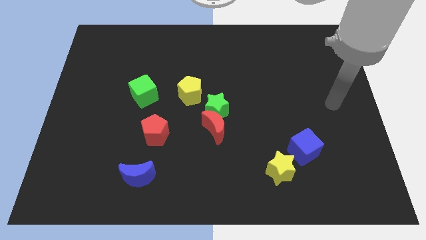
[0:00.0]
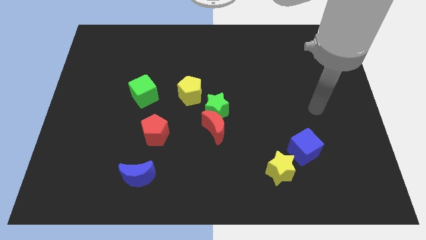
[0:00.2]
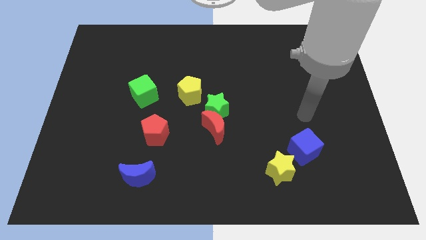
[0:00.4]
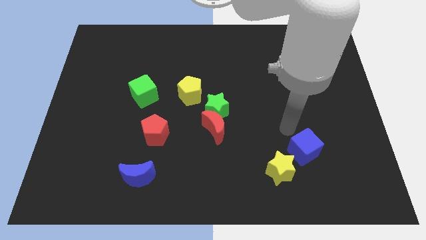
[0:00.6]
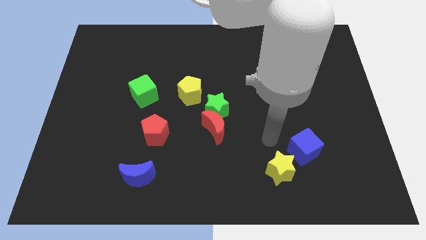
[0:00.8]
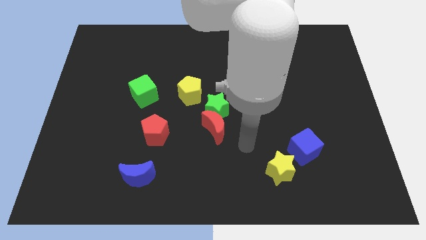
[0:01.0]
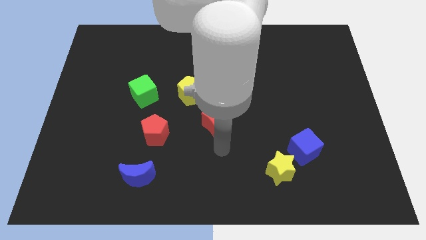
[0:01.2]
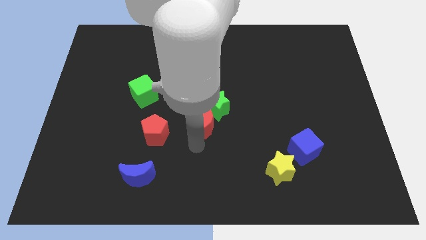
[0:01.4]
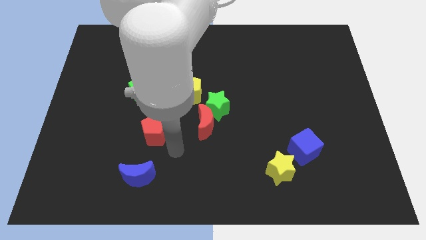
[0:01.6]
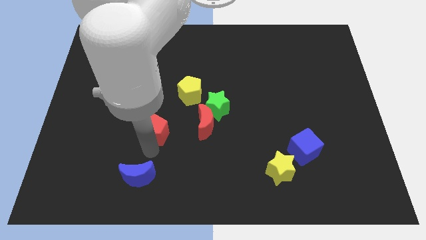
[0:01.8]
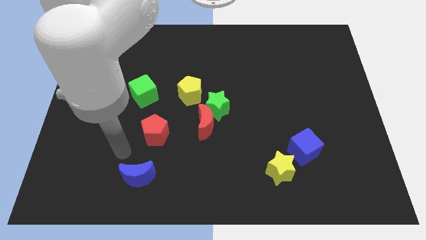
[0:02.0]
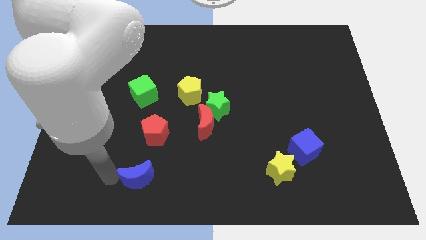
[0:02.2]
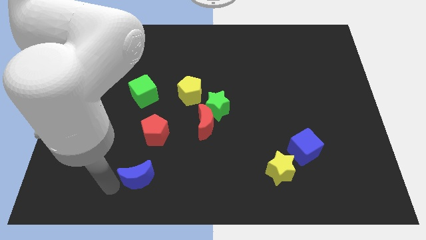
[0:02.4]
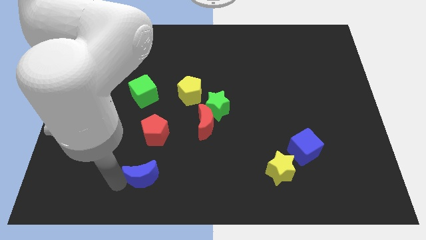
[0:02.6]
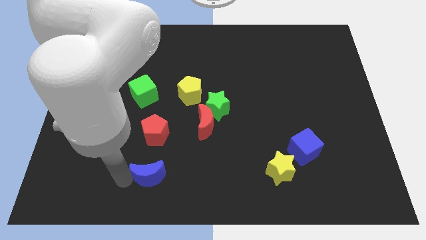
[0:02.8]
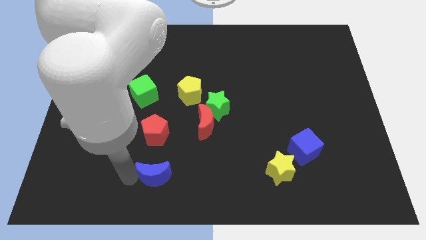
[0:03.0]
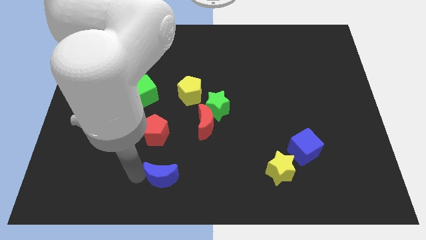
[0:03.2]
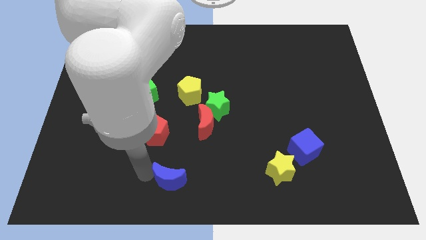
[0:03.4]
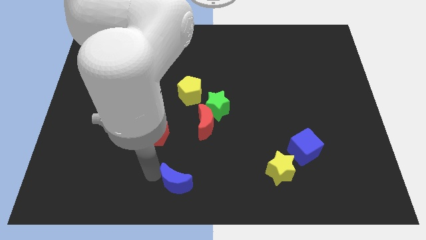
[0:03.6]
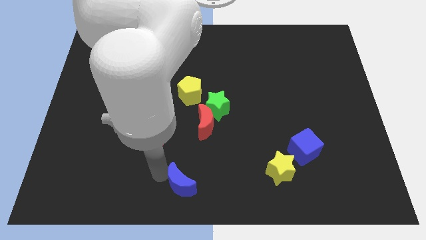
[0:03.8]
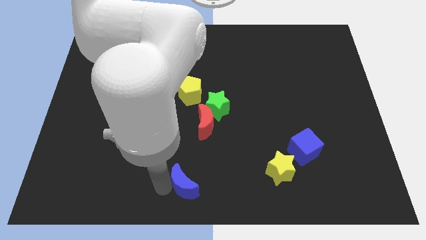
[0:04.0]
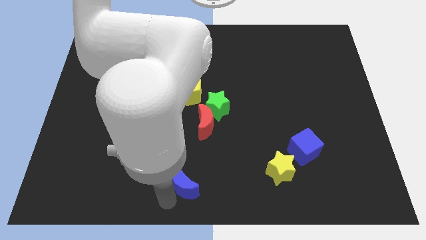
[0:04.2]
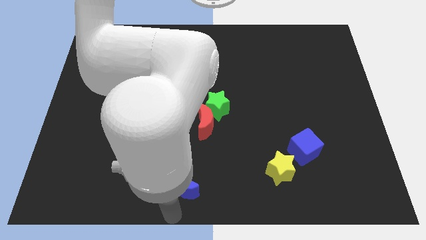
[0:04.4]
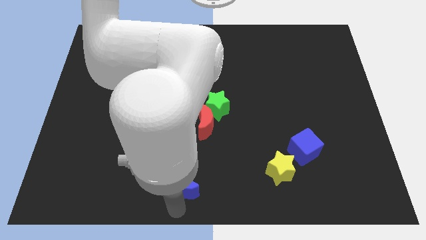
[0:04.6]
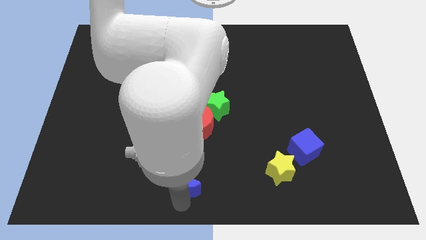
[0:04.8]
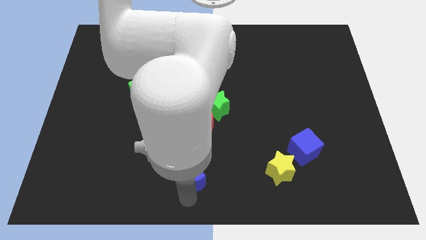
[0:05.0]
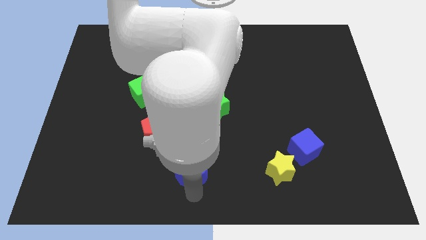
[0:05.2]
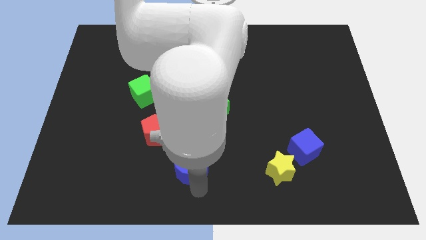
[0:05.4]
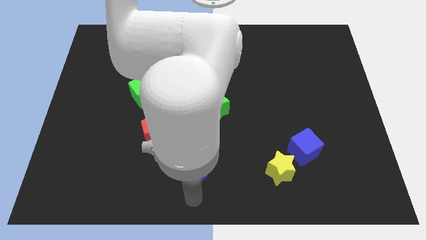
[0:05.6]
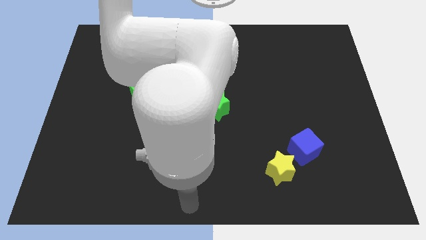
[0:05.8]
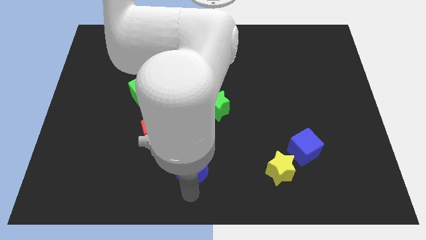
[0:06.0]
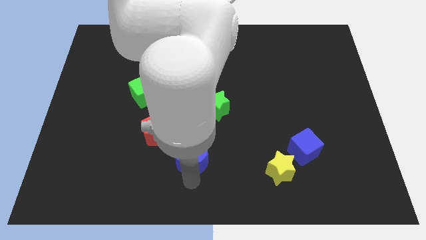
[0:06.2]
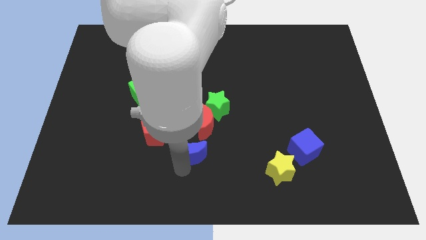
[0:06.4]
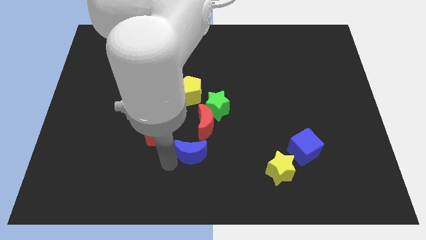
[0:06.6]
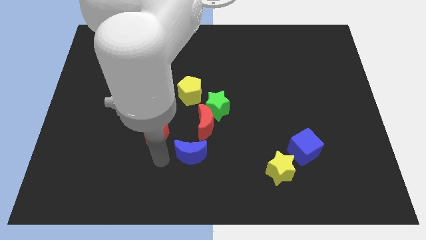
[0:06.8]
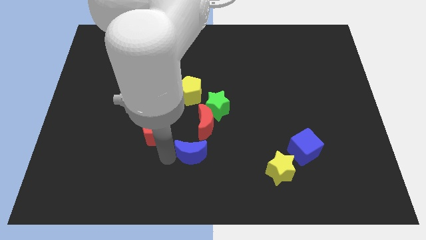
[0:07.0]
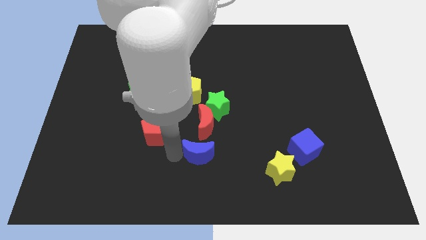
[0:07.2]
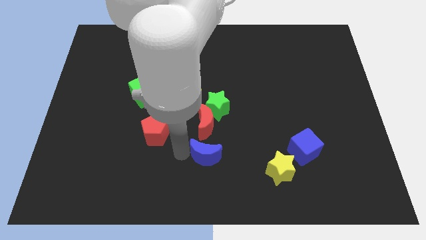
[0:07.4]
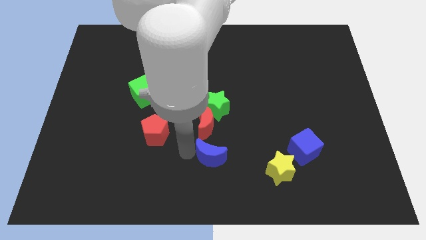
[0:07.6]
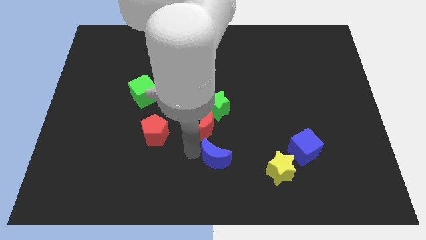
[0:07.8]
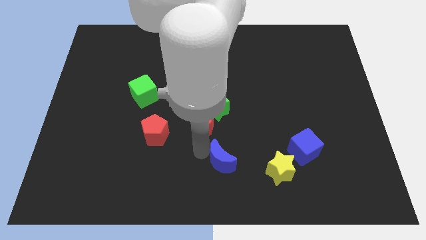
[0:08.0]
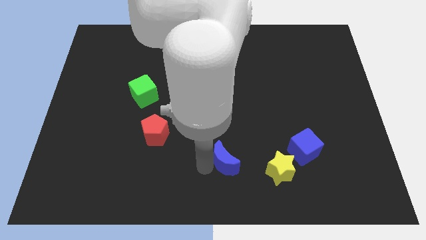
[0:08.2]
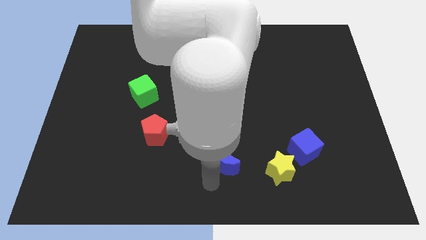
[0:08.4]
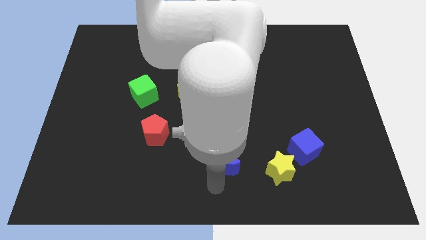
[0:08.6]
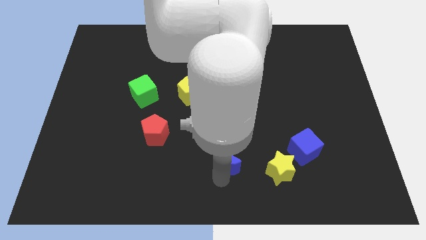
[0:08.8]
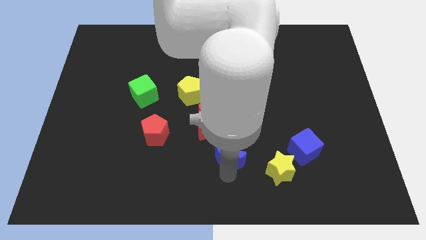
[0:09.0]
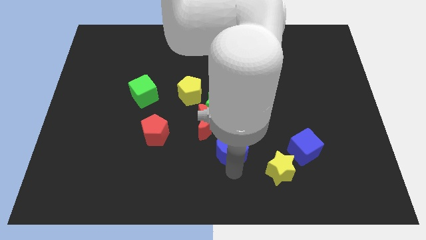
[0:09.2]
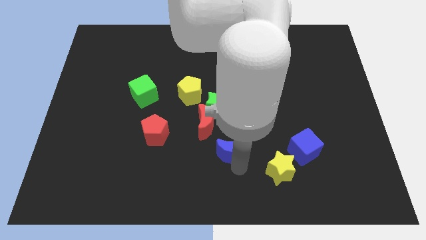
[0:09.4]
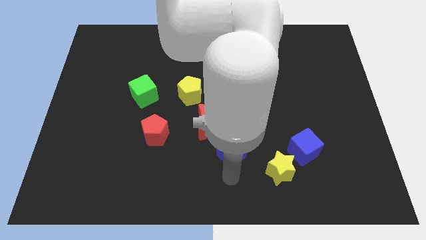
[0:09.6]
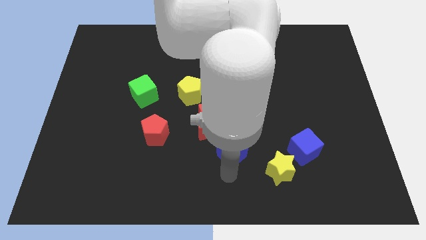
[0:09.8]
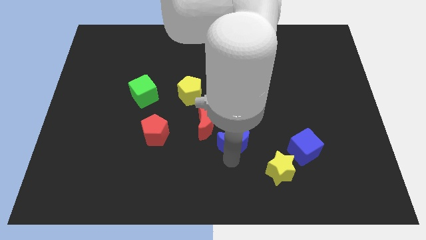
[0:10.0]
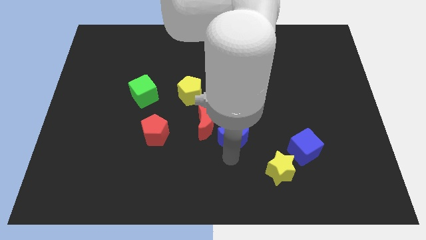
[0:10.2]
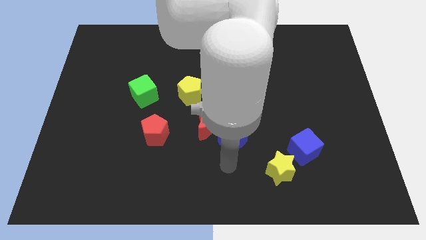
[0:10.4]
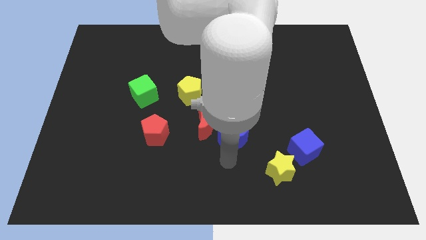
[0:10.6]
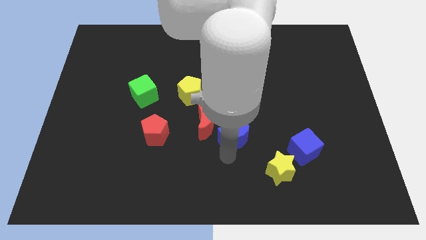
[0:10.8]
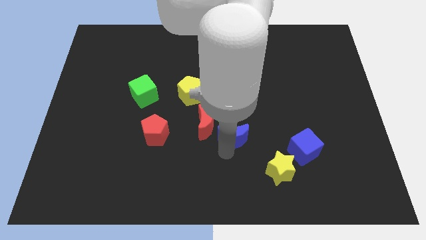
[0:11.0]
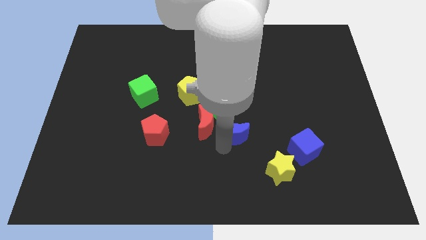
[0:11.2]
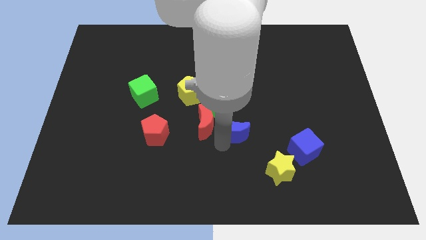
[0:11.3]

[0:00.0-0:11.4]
slide the blue moon diagonally up and right

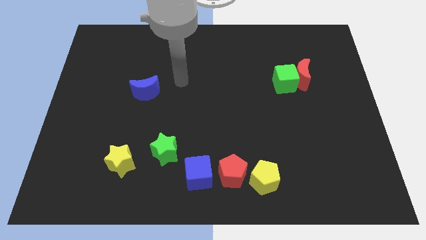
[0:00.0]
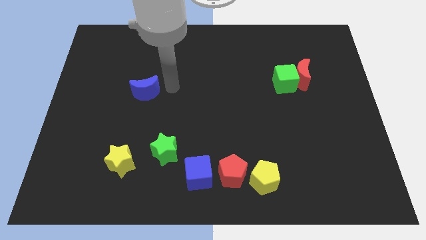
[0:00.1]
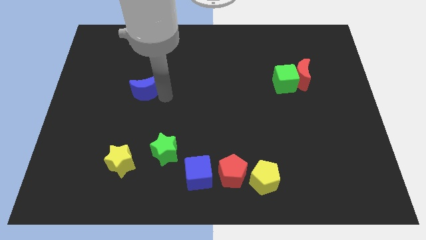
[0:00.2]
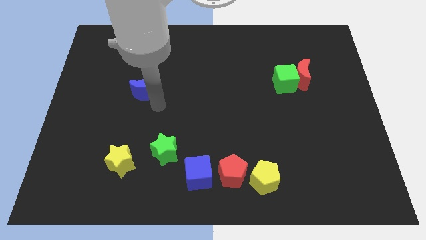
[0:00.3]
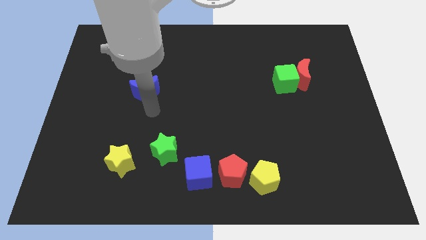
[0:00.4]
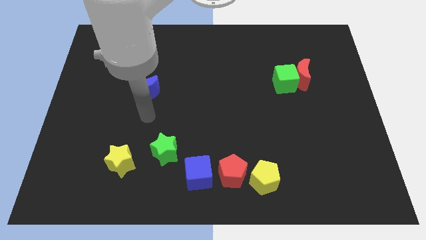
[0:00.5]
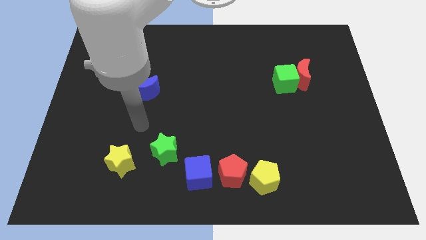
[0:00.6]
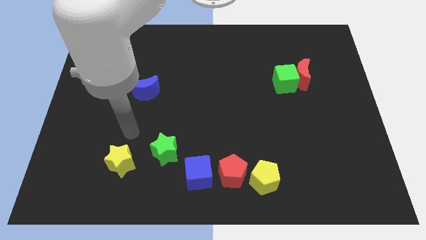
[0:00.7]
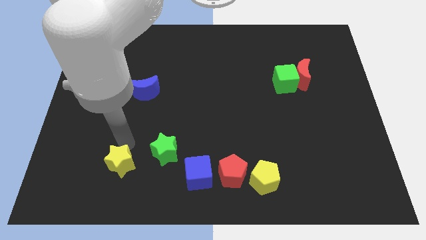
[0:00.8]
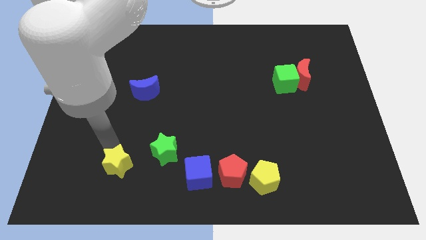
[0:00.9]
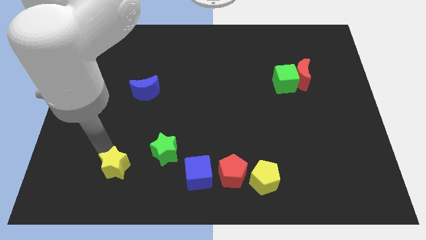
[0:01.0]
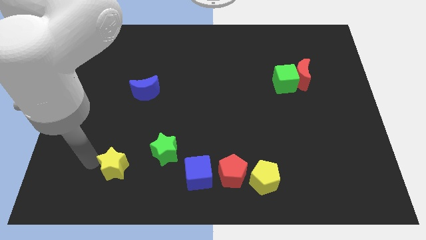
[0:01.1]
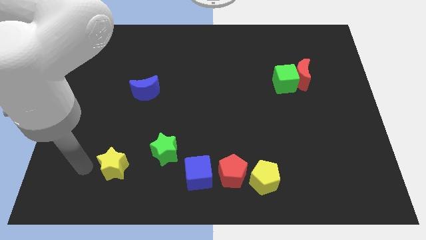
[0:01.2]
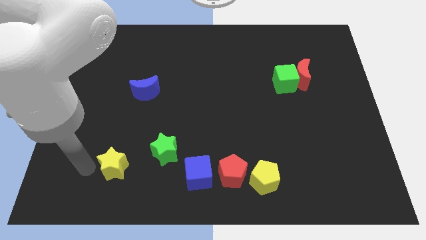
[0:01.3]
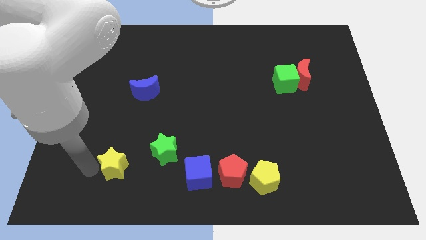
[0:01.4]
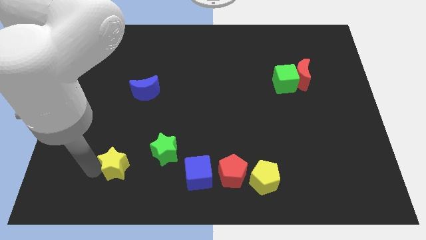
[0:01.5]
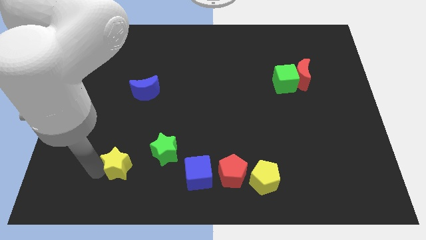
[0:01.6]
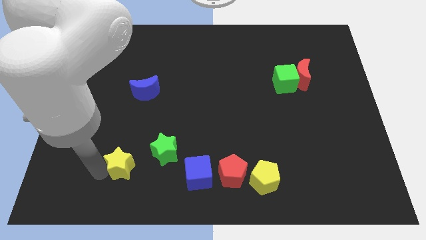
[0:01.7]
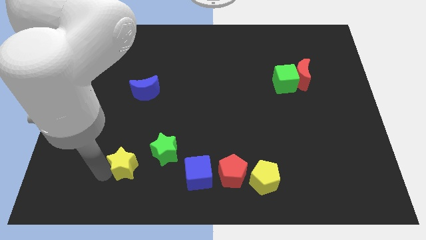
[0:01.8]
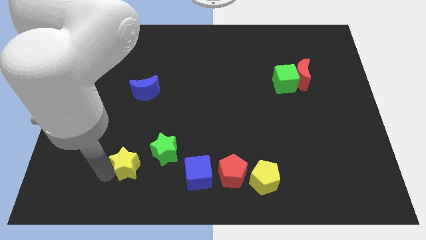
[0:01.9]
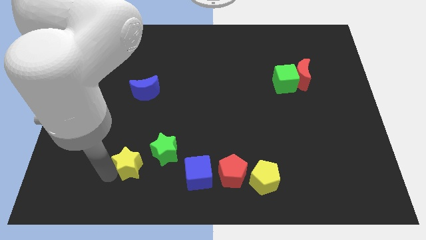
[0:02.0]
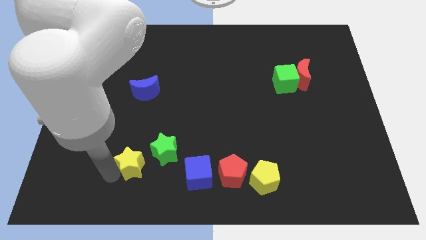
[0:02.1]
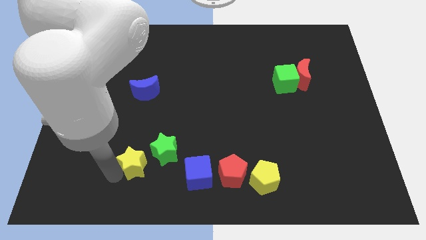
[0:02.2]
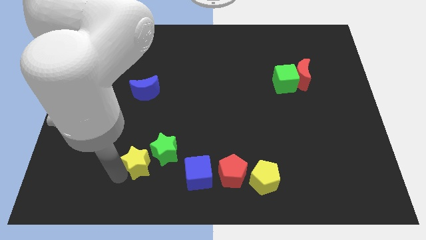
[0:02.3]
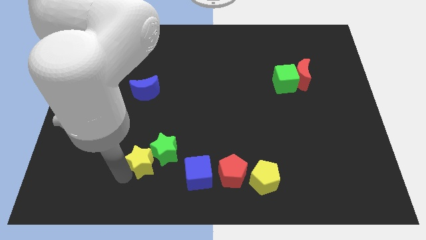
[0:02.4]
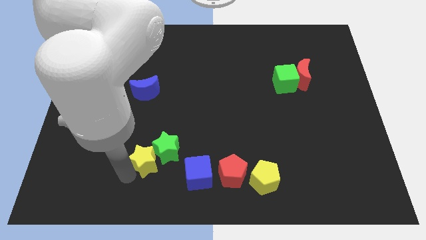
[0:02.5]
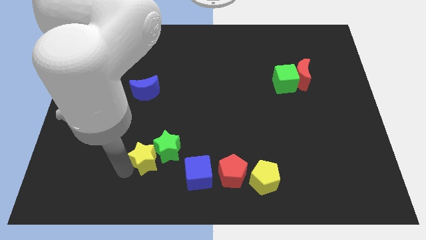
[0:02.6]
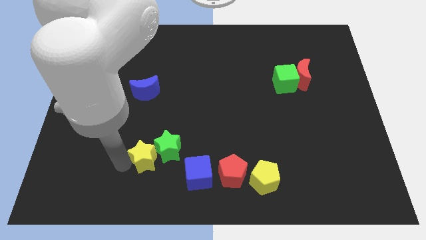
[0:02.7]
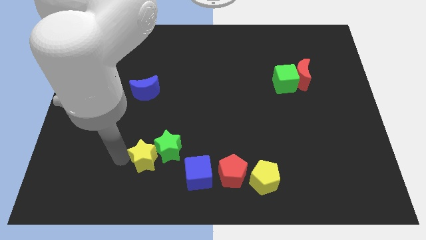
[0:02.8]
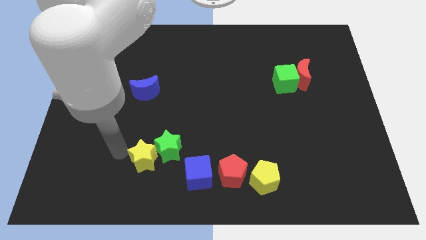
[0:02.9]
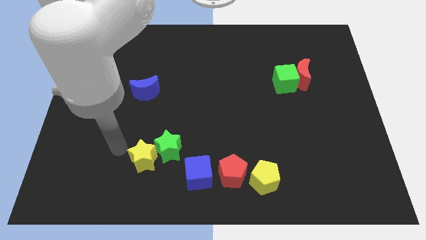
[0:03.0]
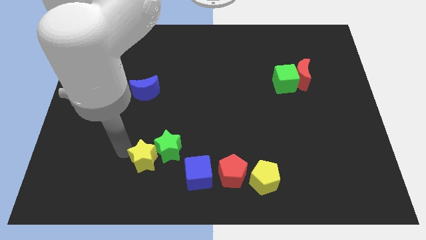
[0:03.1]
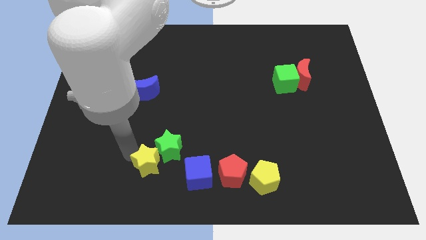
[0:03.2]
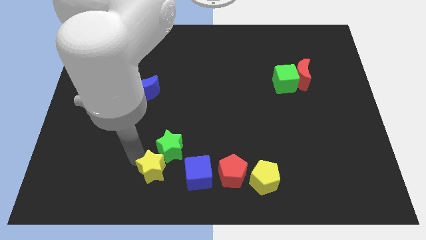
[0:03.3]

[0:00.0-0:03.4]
push the yellow star to the right a little bit
